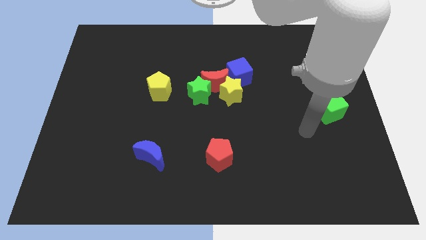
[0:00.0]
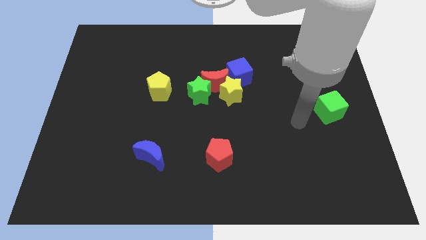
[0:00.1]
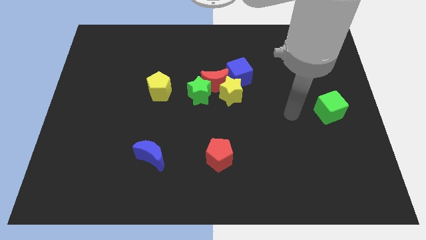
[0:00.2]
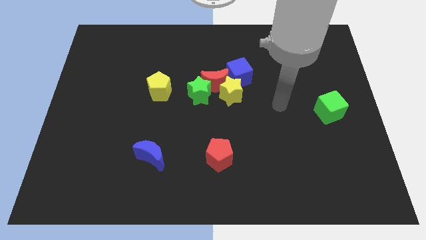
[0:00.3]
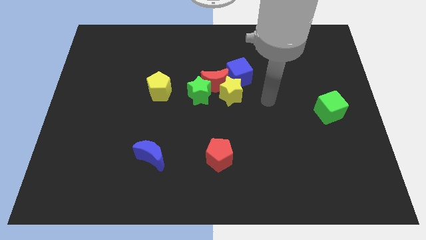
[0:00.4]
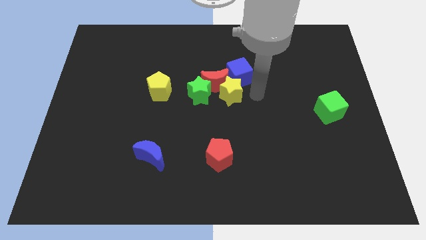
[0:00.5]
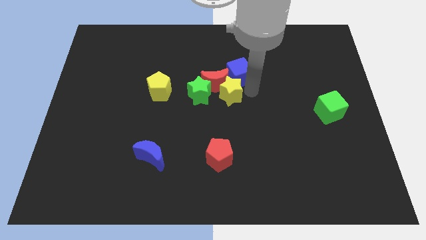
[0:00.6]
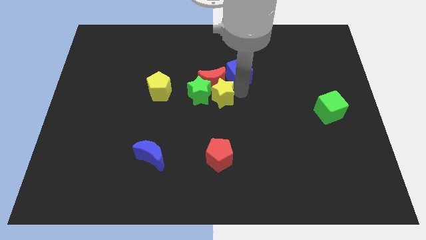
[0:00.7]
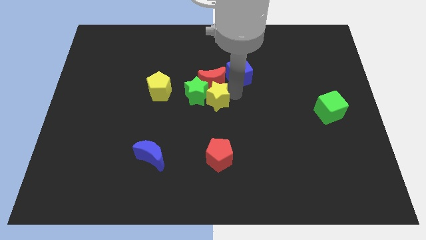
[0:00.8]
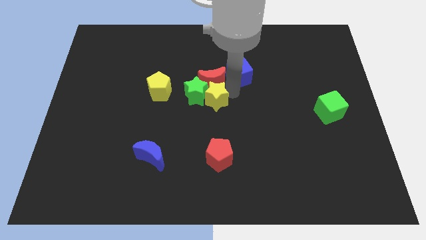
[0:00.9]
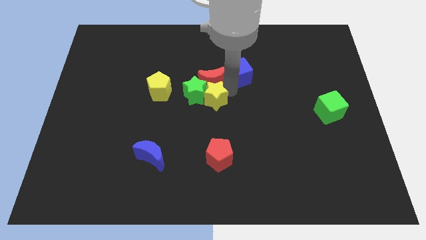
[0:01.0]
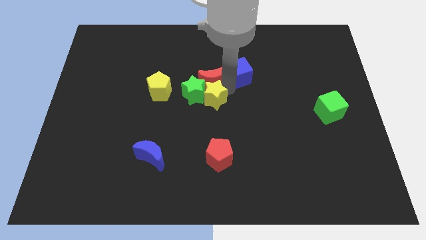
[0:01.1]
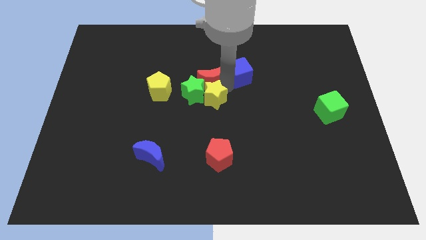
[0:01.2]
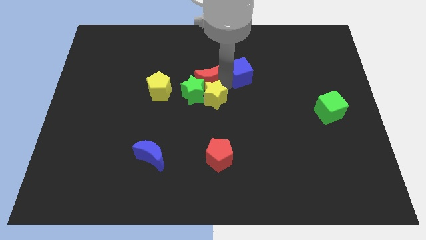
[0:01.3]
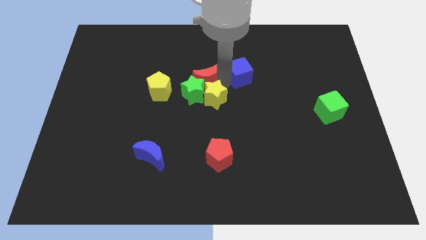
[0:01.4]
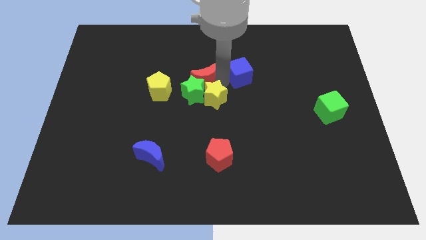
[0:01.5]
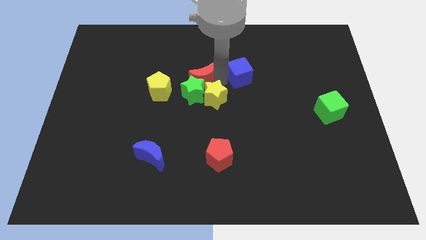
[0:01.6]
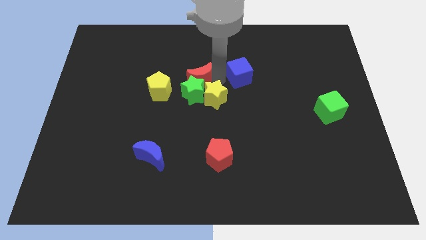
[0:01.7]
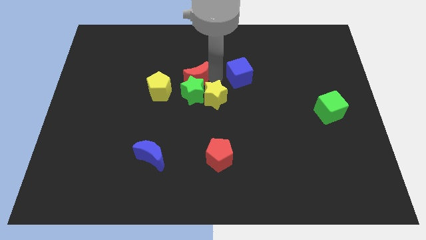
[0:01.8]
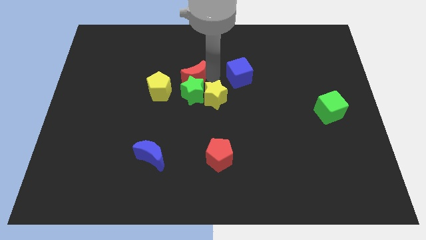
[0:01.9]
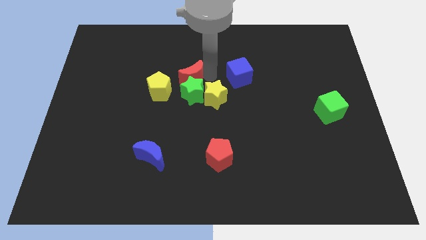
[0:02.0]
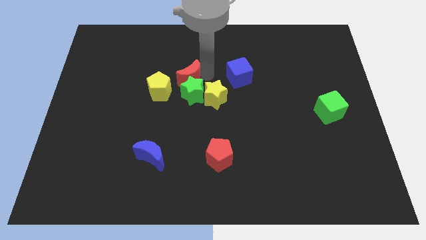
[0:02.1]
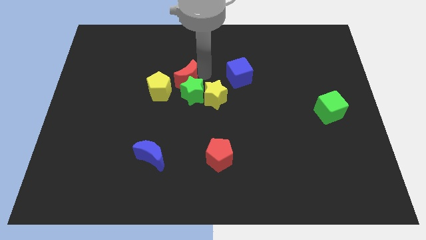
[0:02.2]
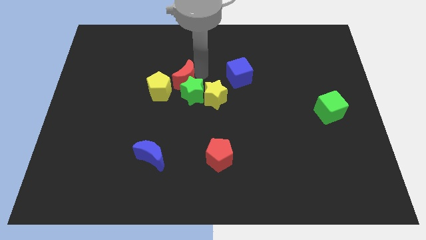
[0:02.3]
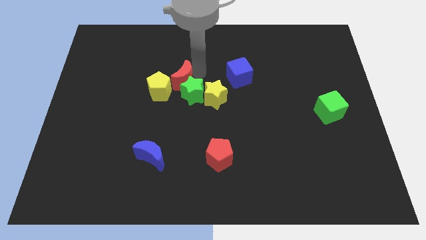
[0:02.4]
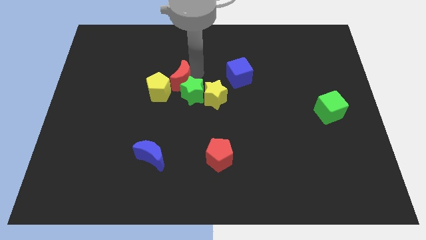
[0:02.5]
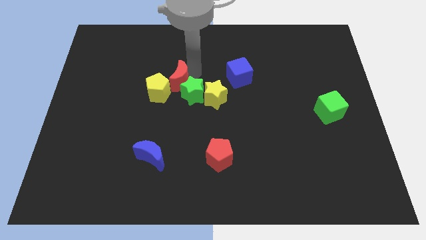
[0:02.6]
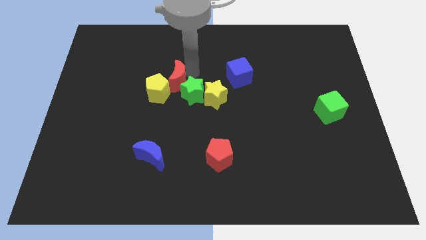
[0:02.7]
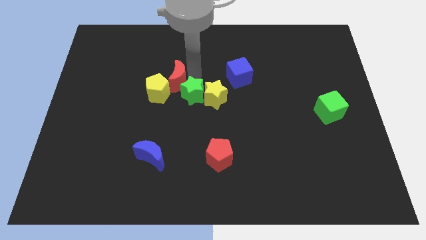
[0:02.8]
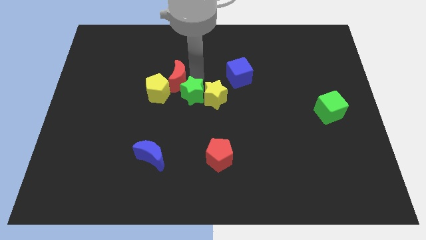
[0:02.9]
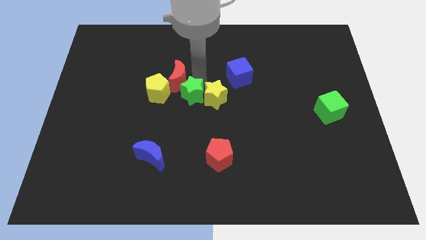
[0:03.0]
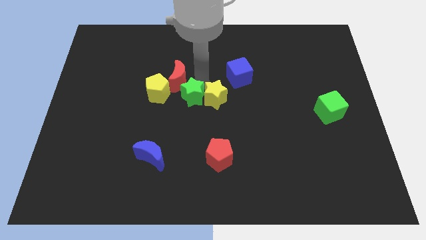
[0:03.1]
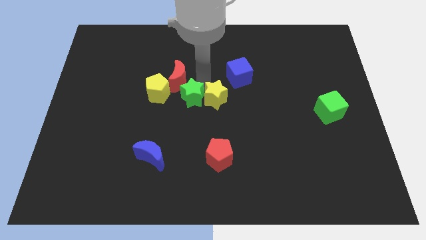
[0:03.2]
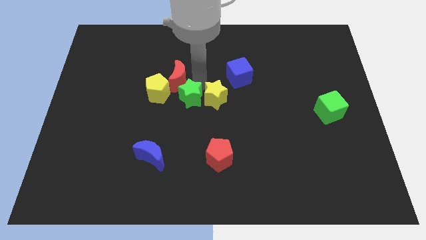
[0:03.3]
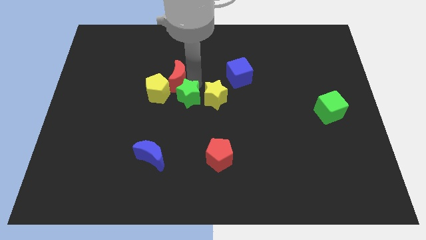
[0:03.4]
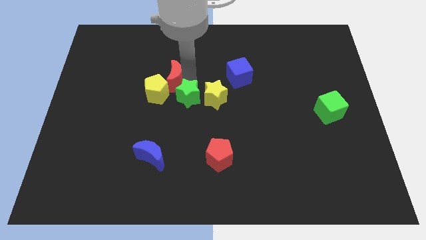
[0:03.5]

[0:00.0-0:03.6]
move the red moon away from the group

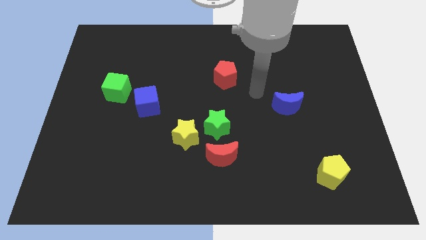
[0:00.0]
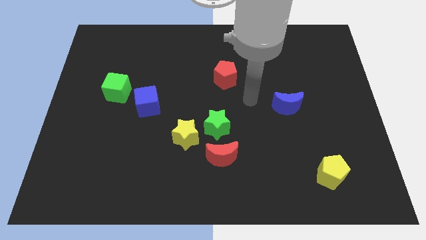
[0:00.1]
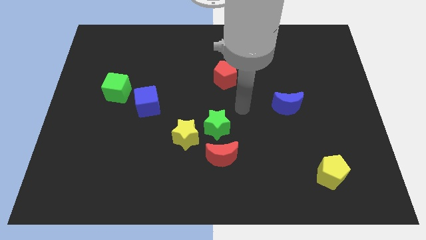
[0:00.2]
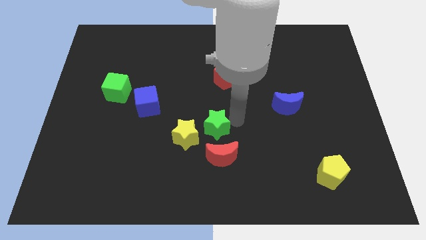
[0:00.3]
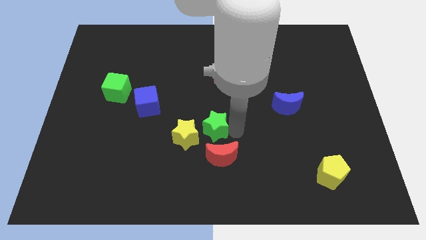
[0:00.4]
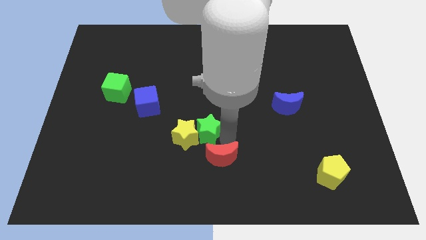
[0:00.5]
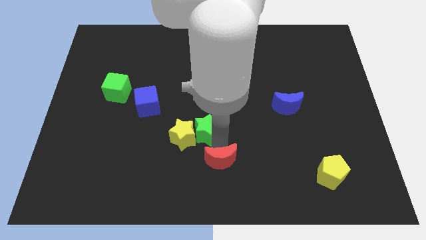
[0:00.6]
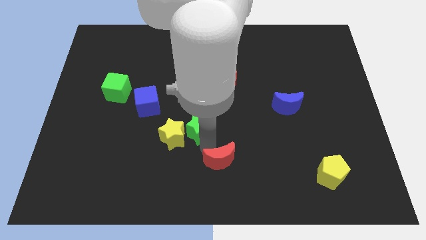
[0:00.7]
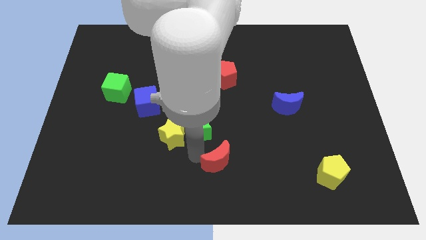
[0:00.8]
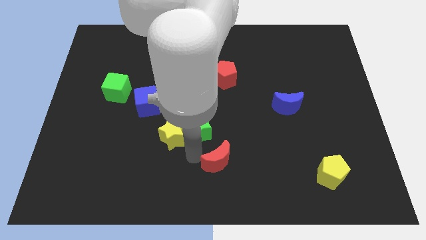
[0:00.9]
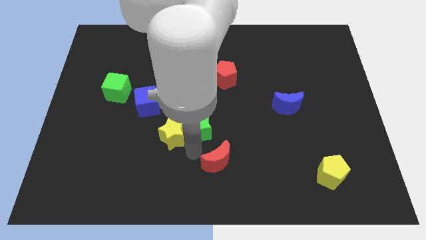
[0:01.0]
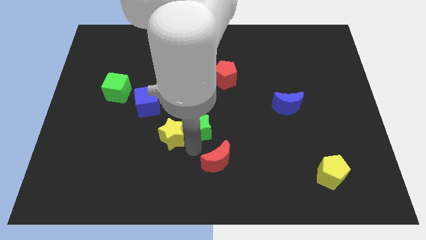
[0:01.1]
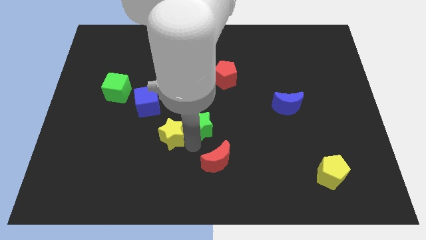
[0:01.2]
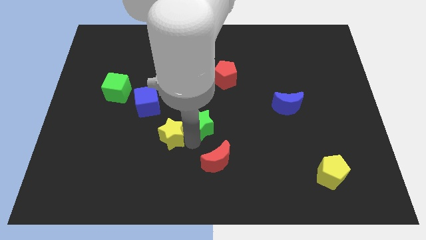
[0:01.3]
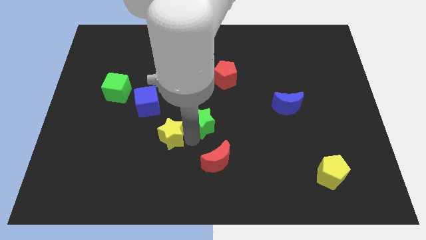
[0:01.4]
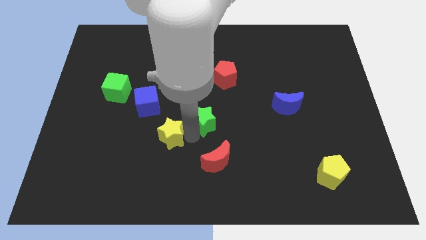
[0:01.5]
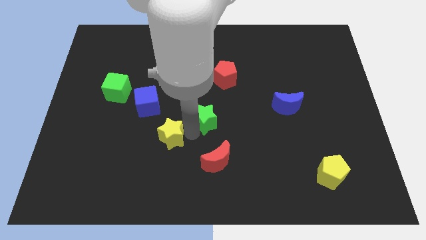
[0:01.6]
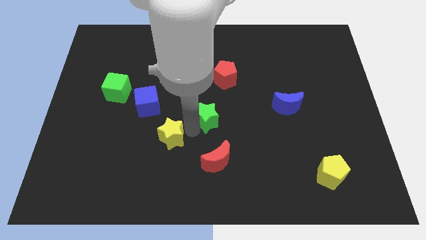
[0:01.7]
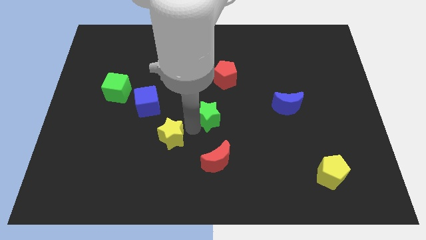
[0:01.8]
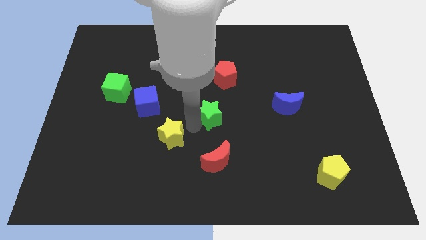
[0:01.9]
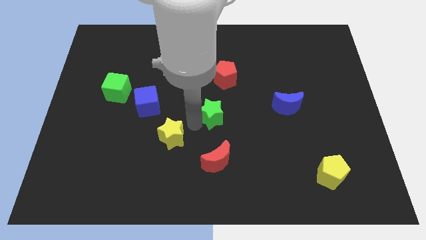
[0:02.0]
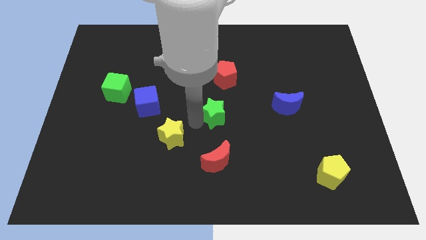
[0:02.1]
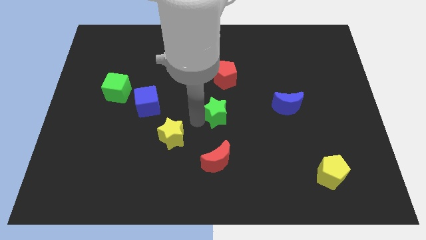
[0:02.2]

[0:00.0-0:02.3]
move the green star away from the yellow star and red moon

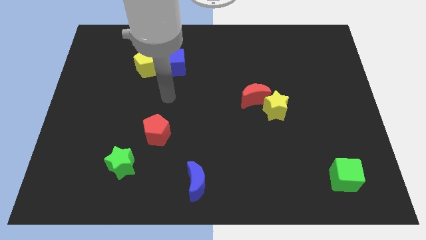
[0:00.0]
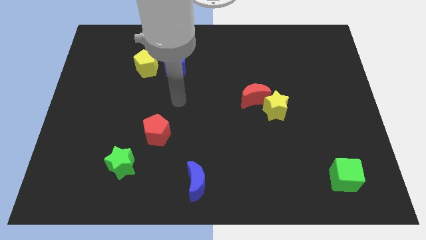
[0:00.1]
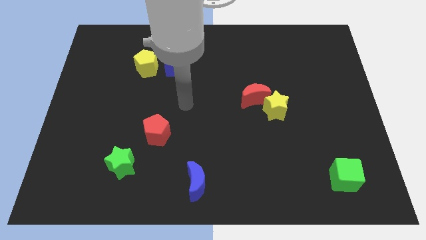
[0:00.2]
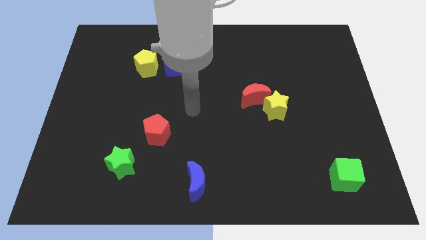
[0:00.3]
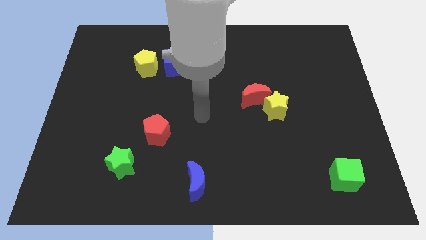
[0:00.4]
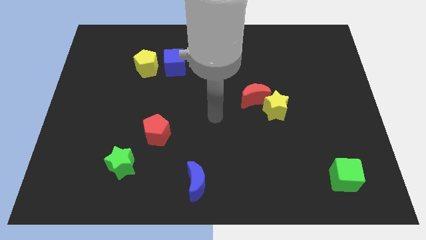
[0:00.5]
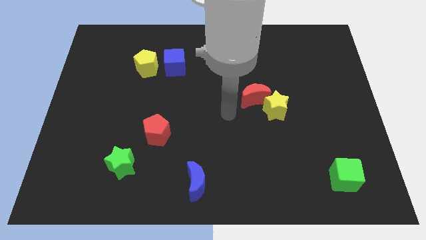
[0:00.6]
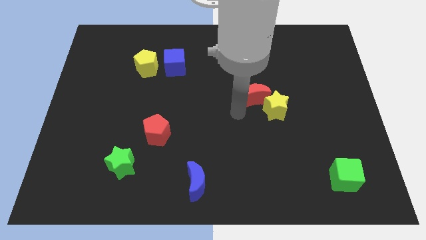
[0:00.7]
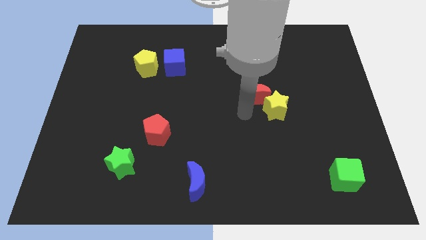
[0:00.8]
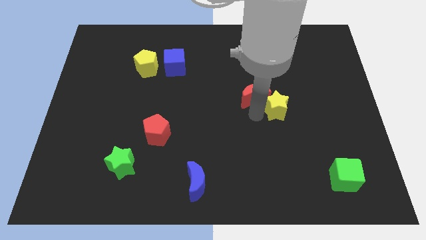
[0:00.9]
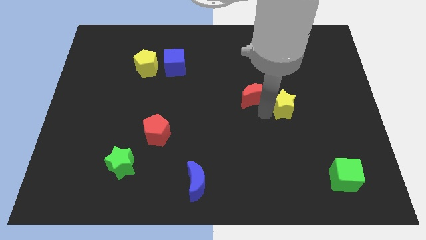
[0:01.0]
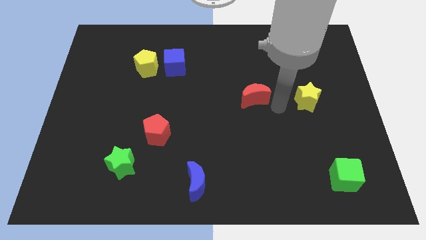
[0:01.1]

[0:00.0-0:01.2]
move the red moon away from the yellow star

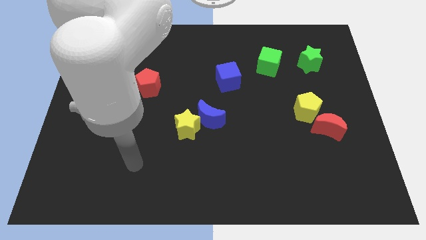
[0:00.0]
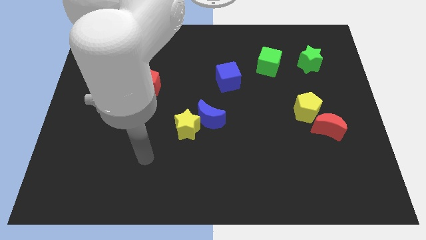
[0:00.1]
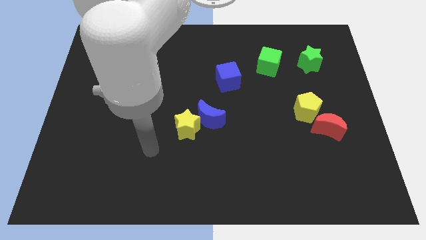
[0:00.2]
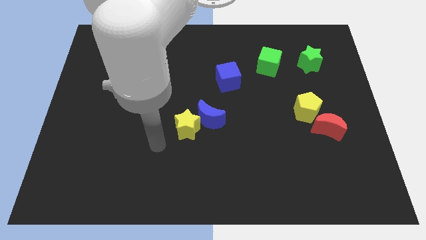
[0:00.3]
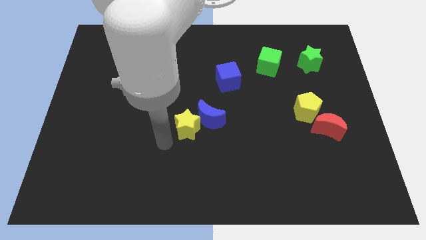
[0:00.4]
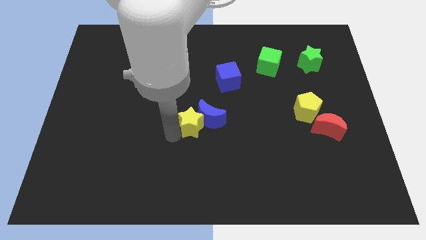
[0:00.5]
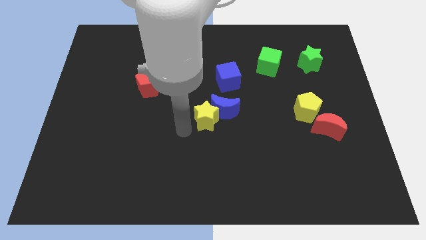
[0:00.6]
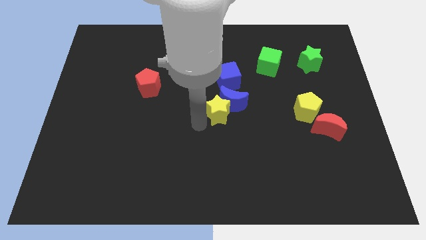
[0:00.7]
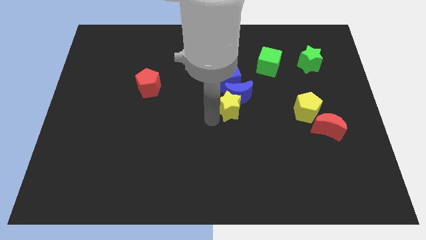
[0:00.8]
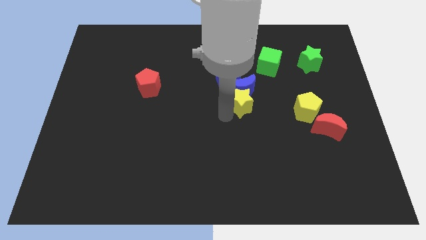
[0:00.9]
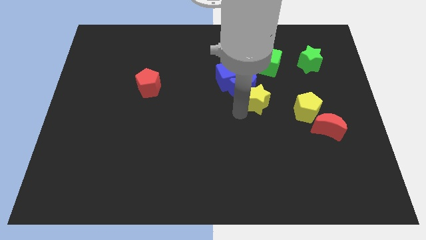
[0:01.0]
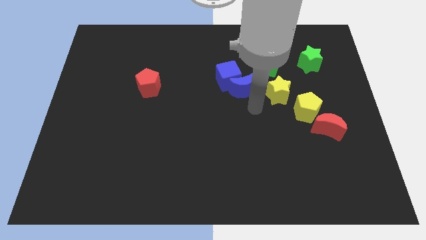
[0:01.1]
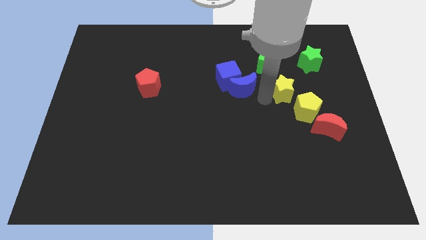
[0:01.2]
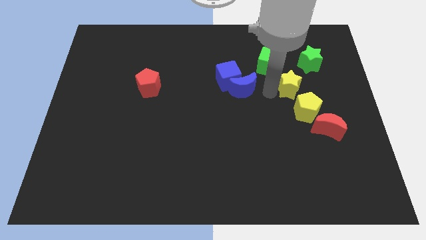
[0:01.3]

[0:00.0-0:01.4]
move the blue moon away from the yellow star

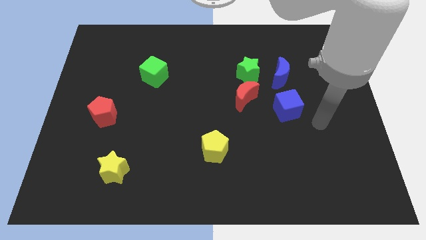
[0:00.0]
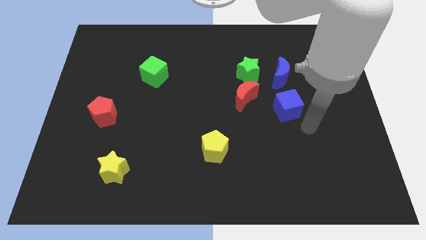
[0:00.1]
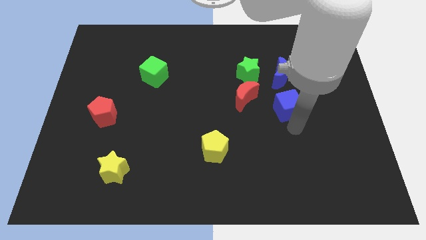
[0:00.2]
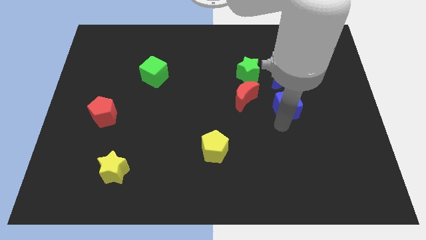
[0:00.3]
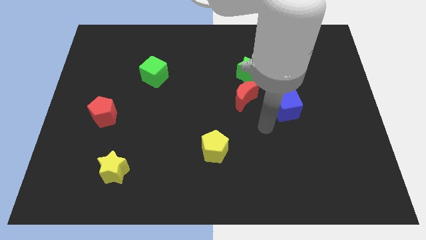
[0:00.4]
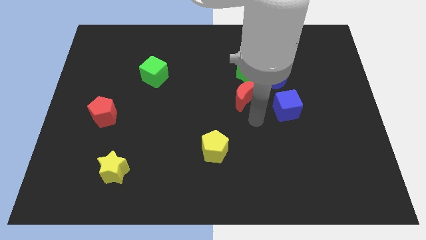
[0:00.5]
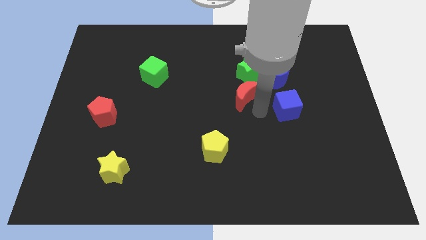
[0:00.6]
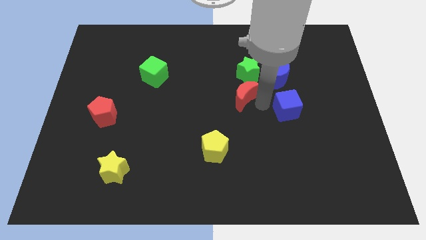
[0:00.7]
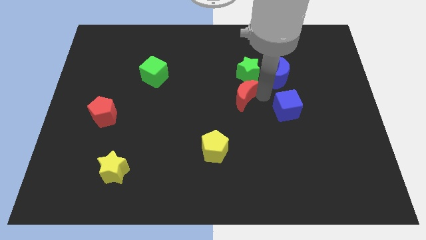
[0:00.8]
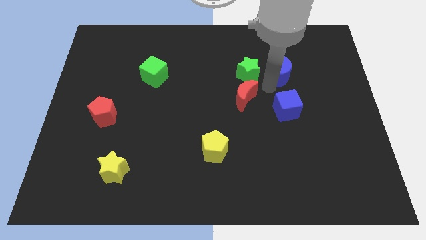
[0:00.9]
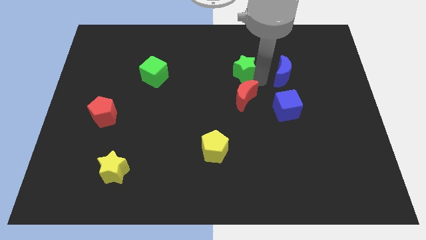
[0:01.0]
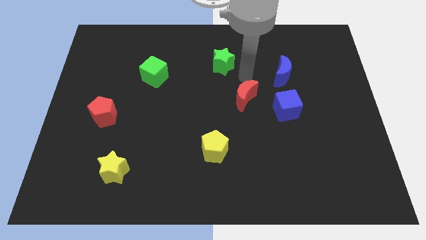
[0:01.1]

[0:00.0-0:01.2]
pull the red moon apart from the green star
